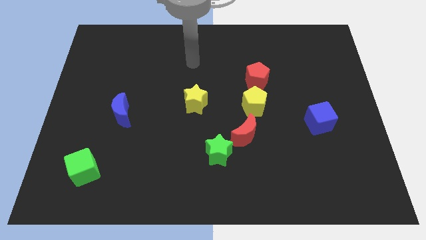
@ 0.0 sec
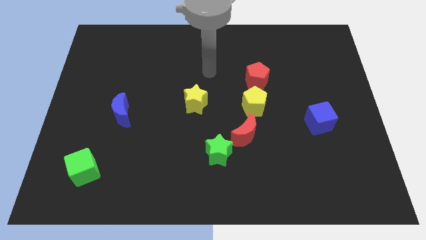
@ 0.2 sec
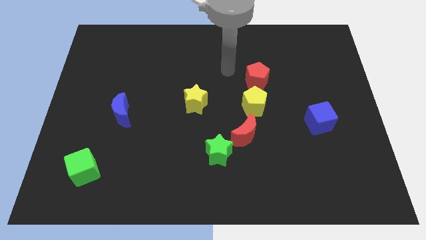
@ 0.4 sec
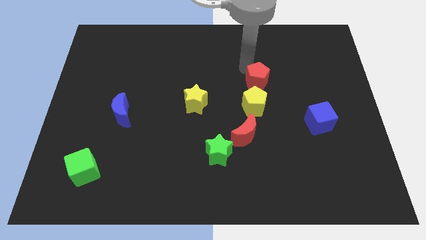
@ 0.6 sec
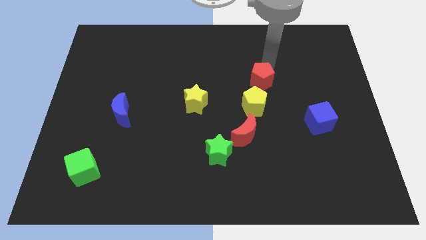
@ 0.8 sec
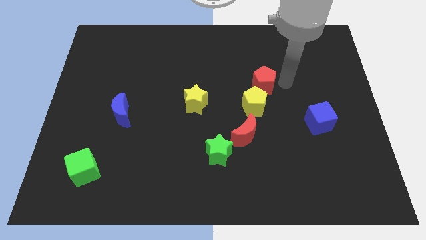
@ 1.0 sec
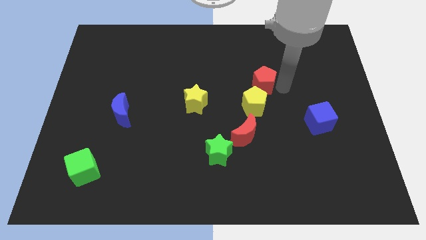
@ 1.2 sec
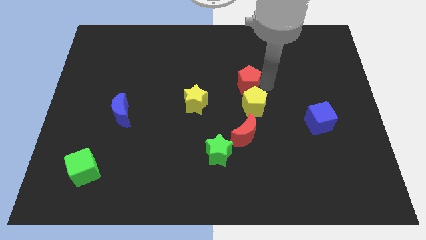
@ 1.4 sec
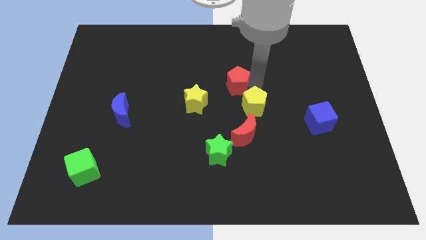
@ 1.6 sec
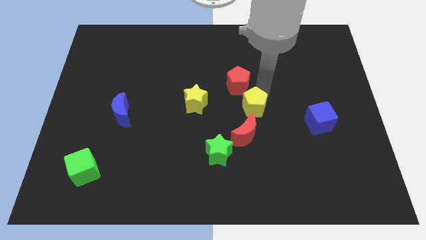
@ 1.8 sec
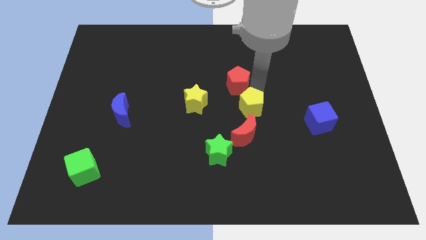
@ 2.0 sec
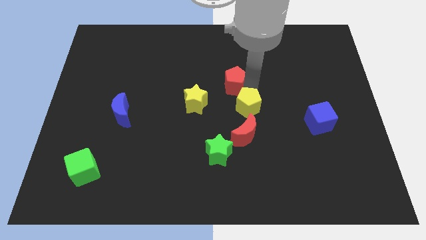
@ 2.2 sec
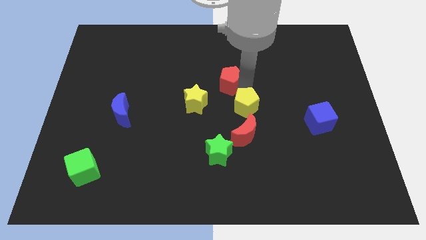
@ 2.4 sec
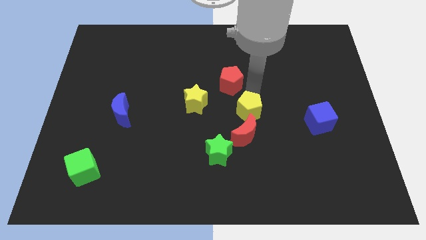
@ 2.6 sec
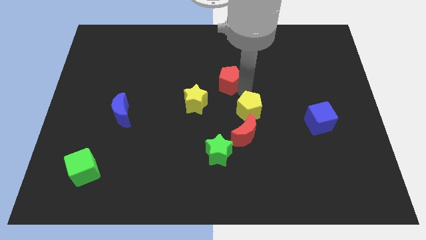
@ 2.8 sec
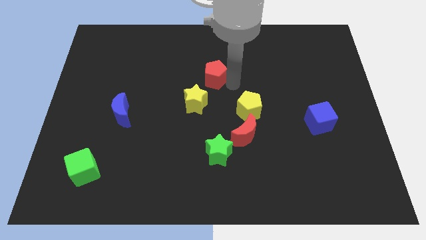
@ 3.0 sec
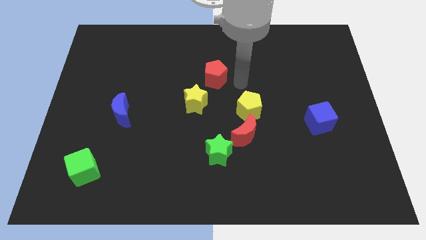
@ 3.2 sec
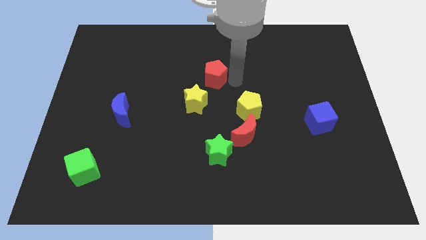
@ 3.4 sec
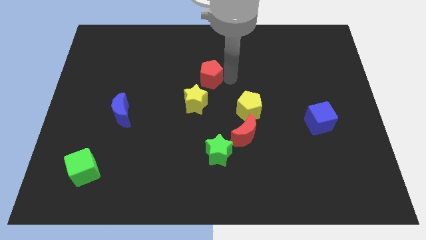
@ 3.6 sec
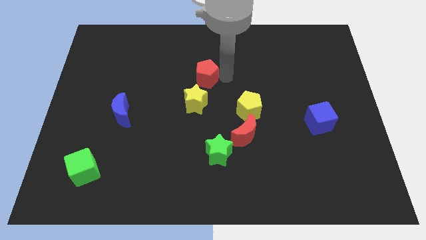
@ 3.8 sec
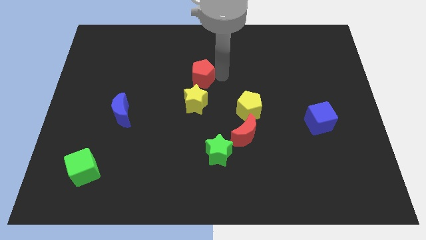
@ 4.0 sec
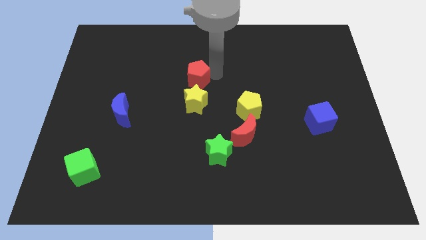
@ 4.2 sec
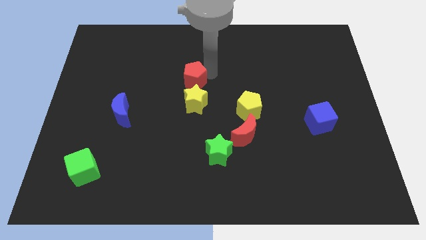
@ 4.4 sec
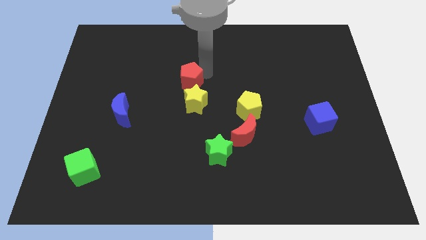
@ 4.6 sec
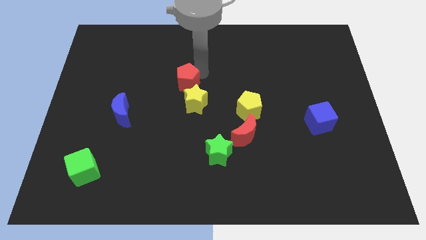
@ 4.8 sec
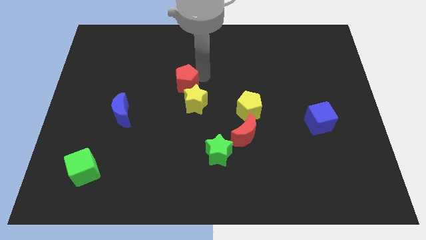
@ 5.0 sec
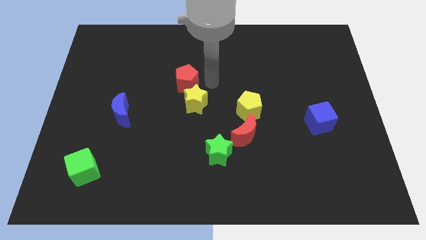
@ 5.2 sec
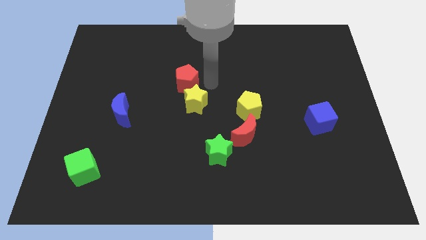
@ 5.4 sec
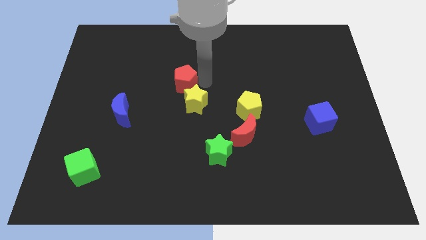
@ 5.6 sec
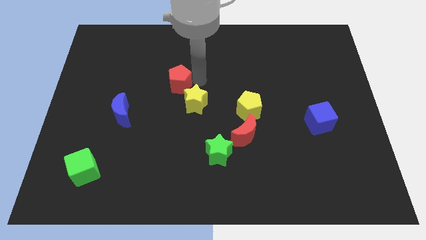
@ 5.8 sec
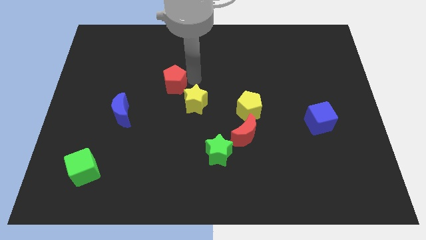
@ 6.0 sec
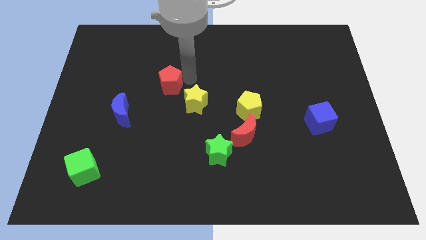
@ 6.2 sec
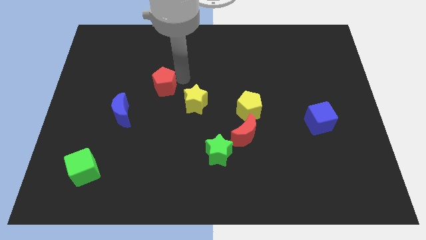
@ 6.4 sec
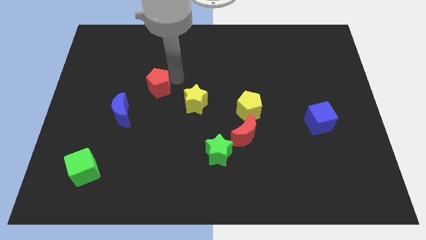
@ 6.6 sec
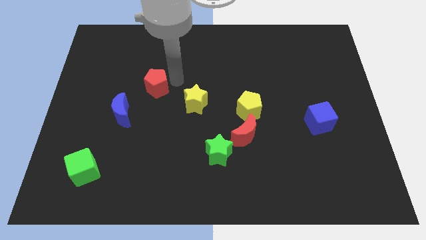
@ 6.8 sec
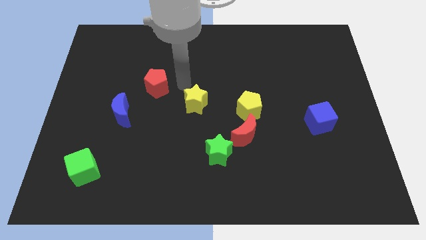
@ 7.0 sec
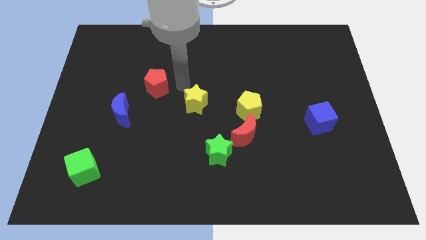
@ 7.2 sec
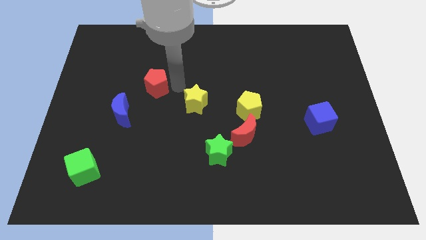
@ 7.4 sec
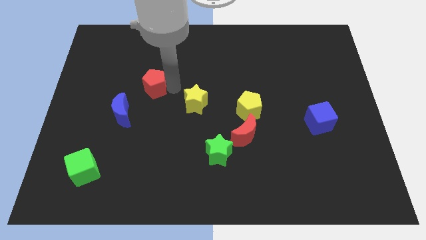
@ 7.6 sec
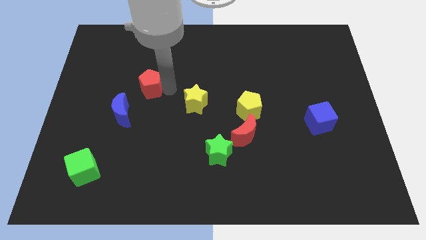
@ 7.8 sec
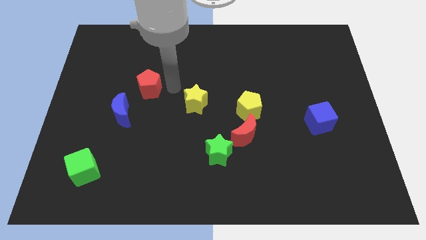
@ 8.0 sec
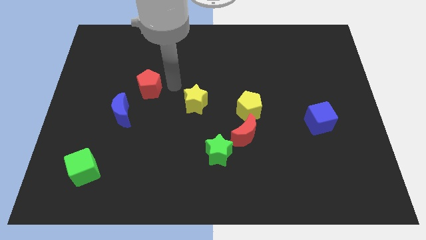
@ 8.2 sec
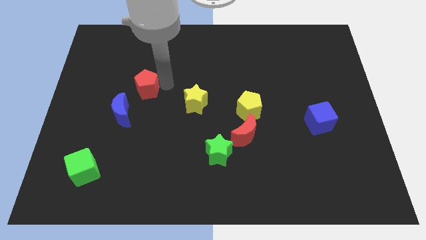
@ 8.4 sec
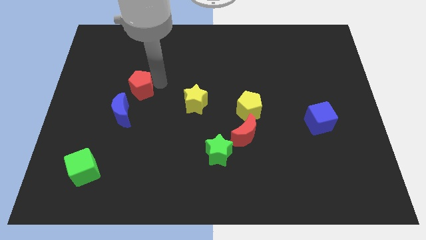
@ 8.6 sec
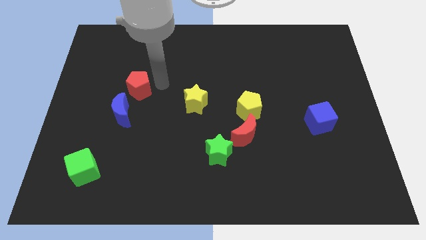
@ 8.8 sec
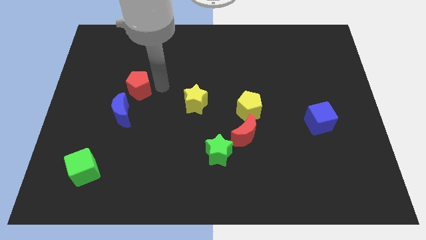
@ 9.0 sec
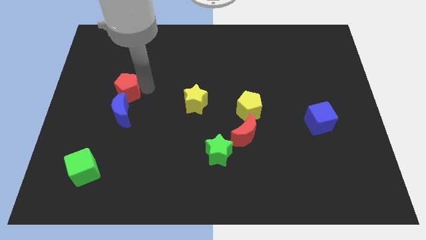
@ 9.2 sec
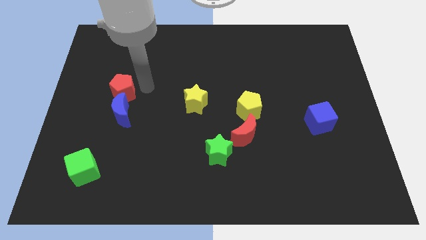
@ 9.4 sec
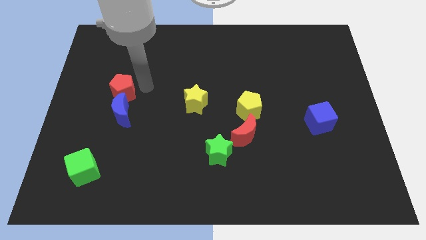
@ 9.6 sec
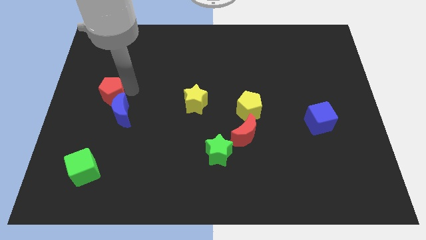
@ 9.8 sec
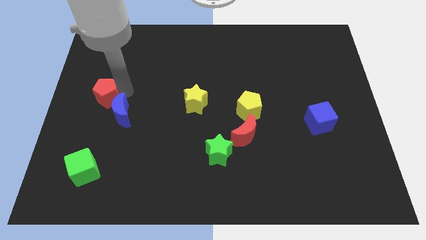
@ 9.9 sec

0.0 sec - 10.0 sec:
put the red pentagon to the center left

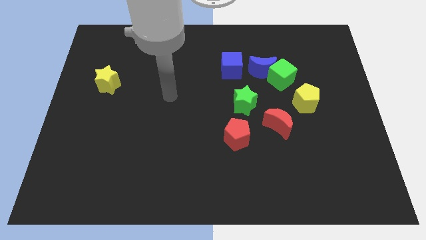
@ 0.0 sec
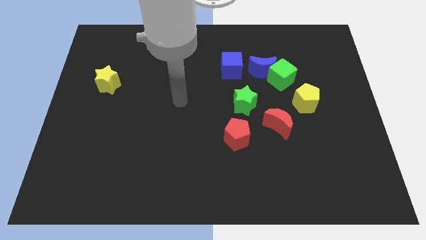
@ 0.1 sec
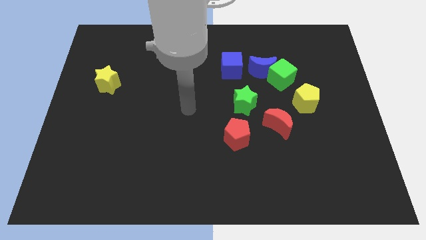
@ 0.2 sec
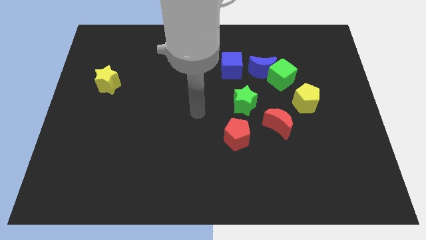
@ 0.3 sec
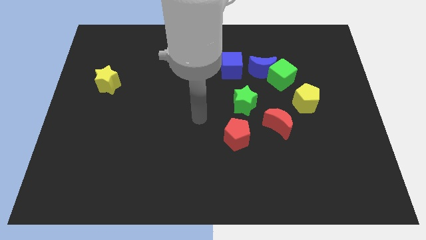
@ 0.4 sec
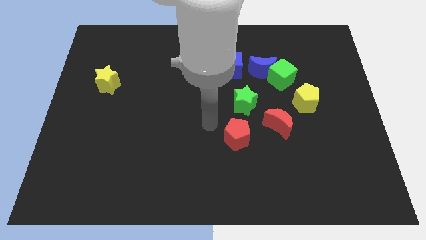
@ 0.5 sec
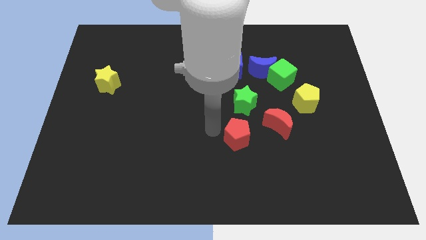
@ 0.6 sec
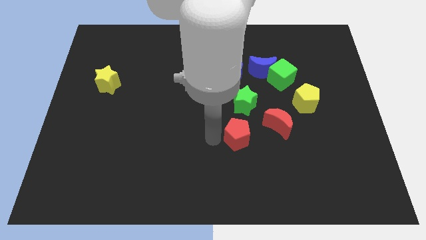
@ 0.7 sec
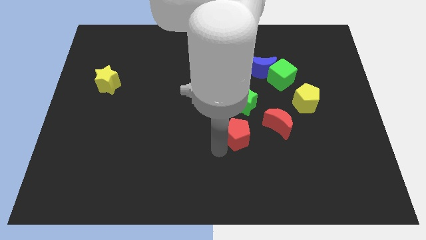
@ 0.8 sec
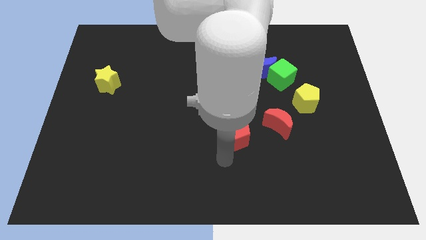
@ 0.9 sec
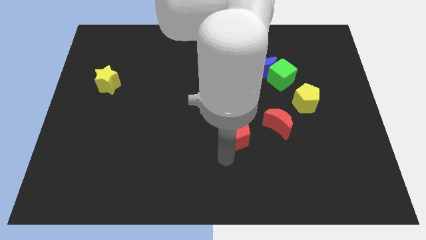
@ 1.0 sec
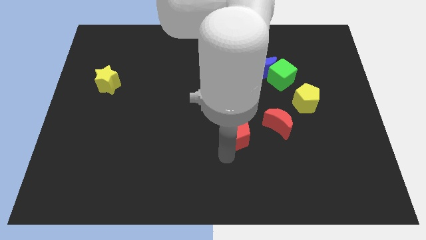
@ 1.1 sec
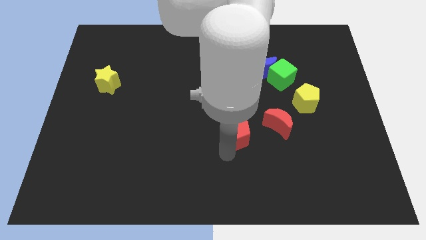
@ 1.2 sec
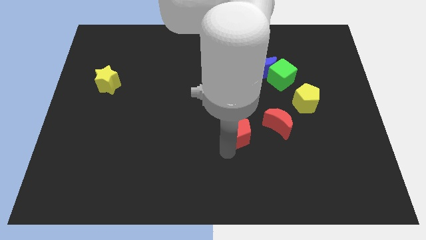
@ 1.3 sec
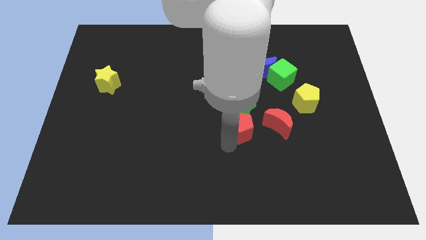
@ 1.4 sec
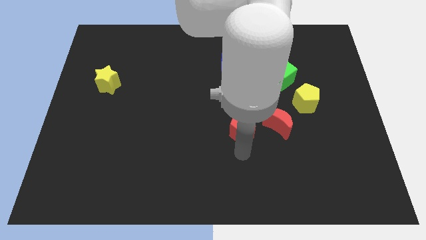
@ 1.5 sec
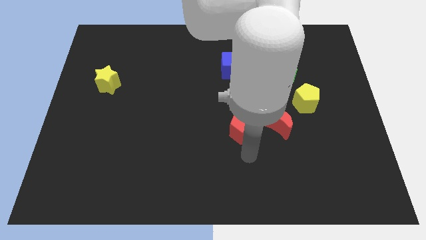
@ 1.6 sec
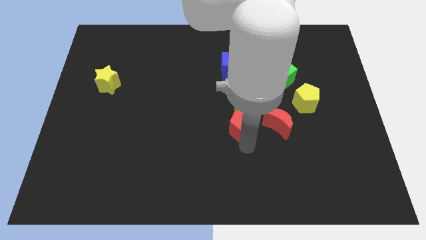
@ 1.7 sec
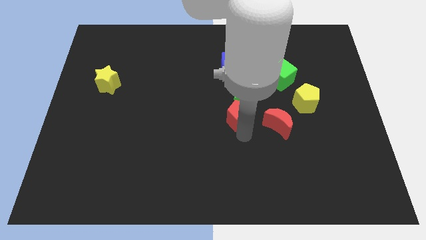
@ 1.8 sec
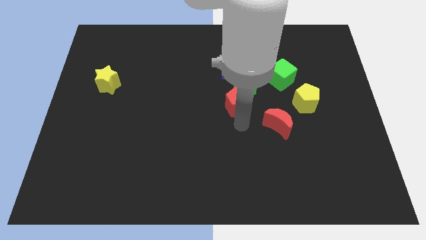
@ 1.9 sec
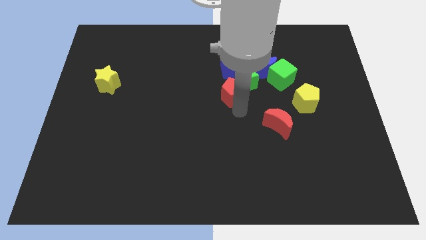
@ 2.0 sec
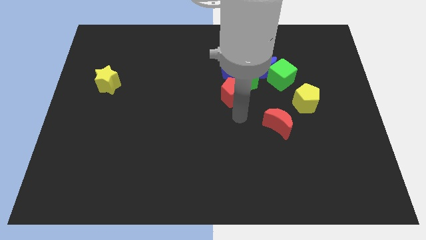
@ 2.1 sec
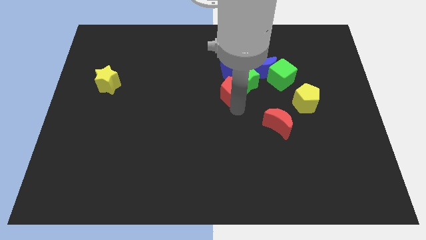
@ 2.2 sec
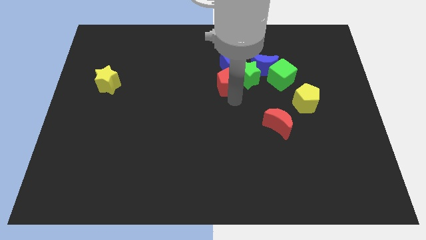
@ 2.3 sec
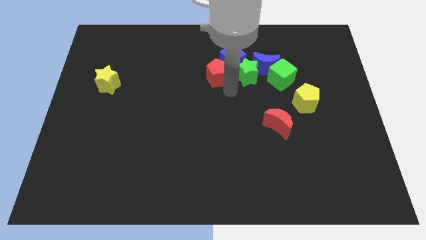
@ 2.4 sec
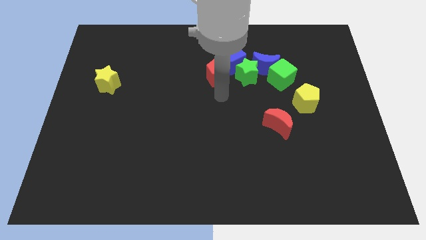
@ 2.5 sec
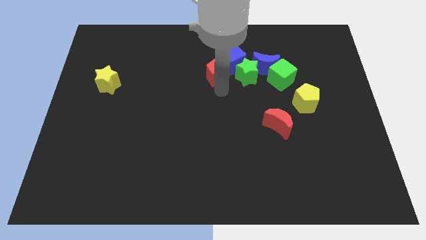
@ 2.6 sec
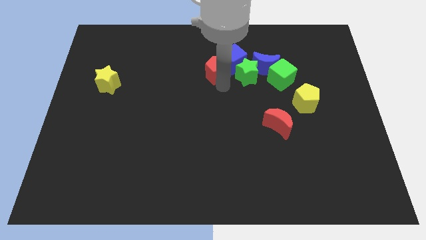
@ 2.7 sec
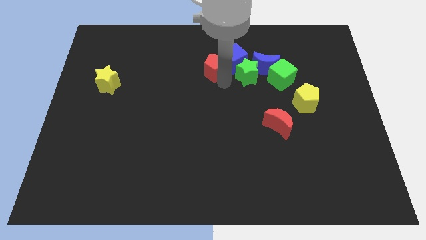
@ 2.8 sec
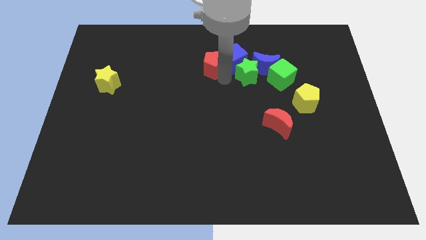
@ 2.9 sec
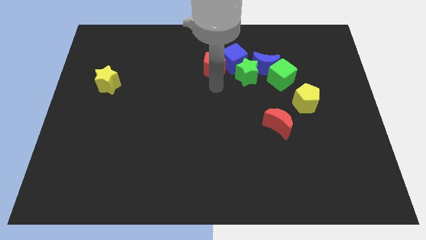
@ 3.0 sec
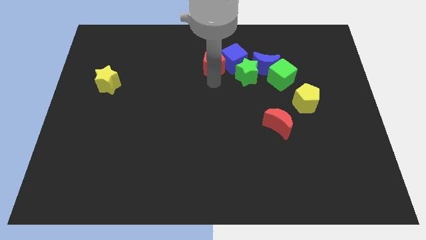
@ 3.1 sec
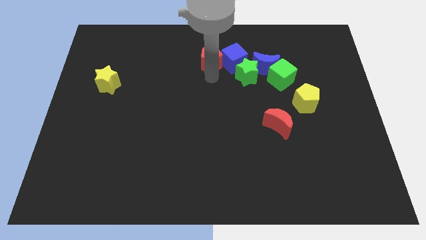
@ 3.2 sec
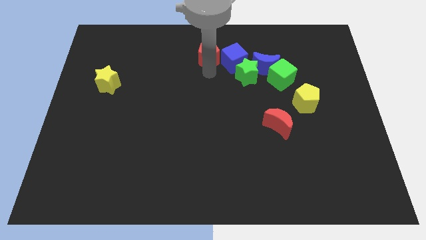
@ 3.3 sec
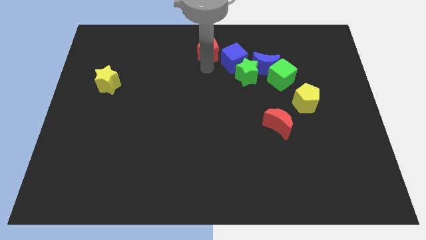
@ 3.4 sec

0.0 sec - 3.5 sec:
move the red pentagon to the top side
